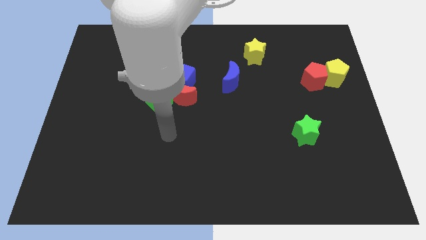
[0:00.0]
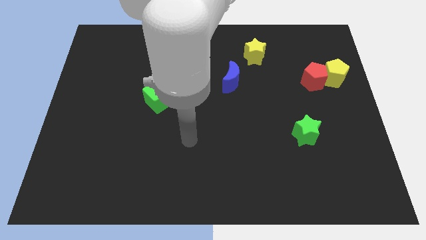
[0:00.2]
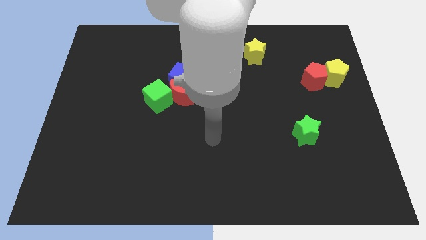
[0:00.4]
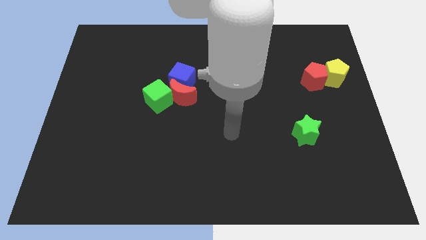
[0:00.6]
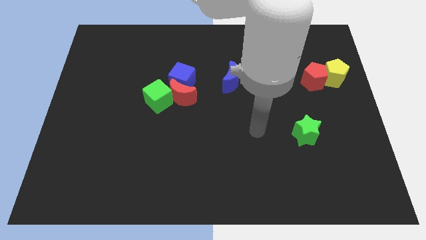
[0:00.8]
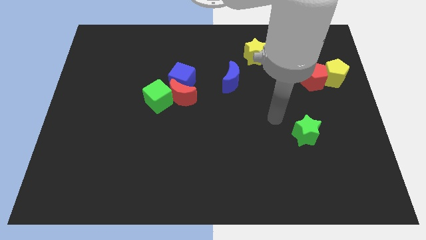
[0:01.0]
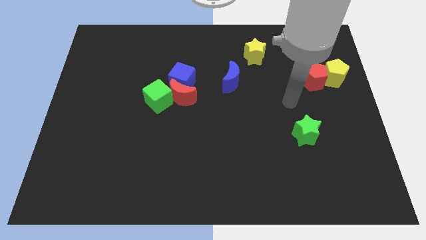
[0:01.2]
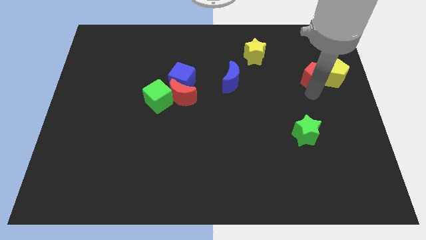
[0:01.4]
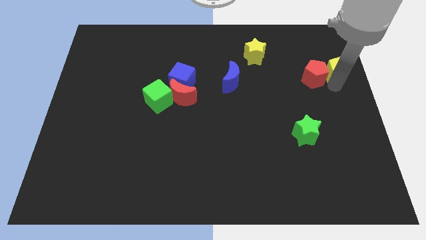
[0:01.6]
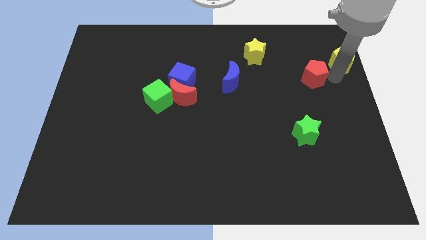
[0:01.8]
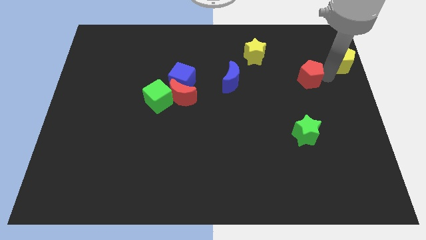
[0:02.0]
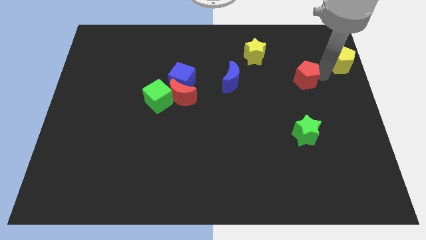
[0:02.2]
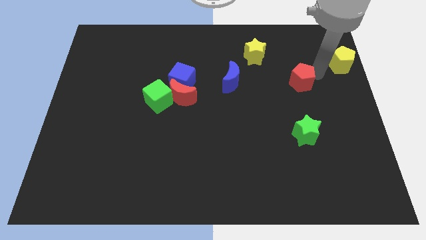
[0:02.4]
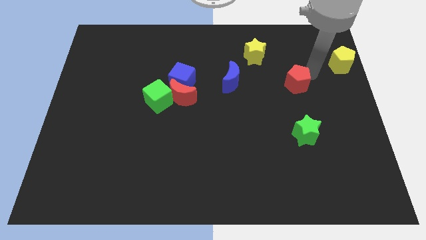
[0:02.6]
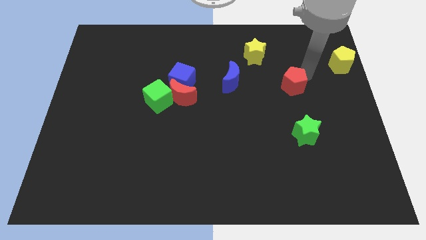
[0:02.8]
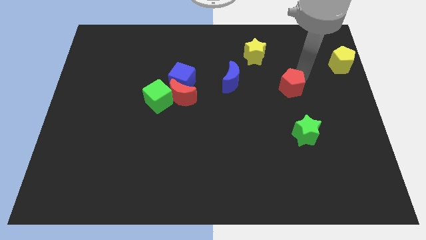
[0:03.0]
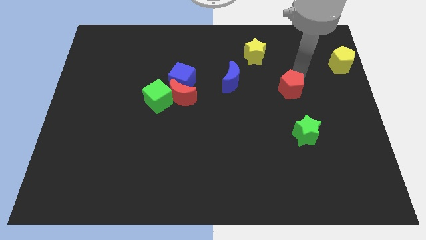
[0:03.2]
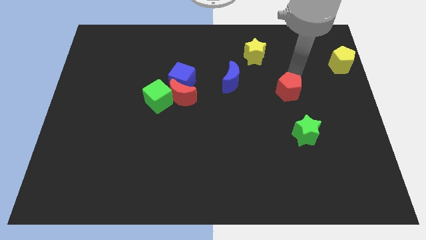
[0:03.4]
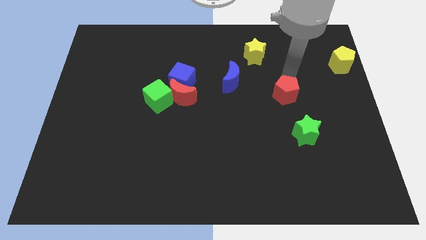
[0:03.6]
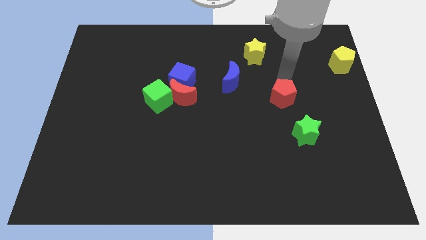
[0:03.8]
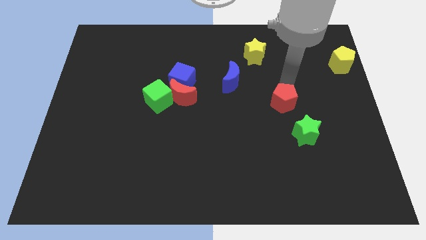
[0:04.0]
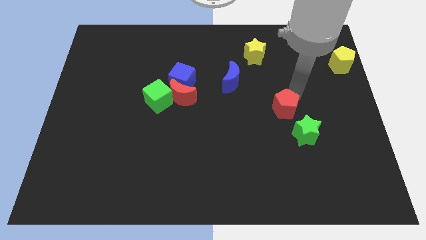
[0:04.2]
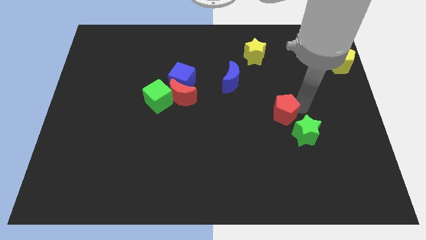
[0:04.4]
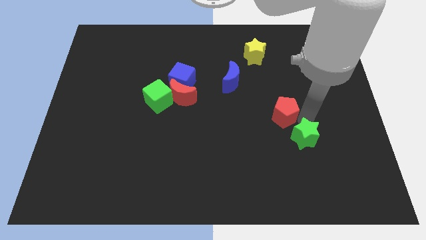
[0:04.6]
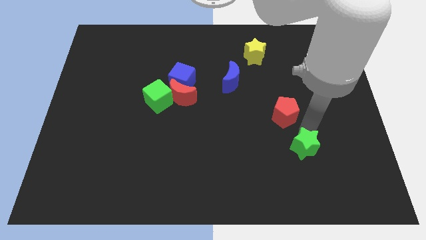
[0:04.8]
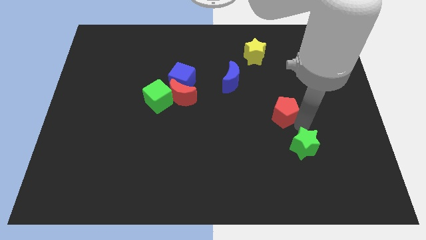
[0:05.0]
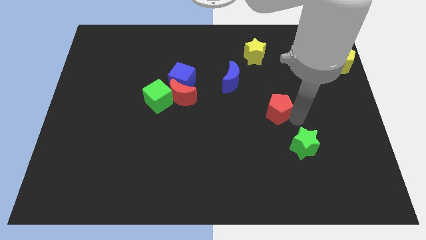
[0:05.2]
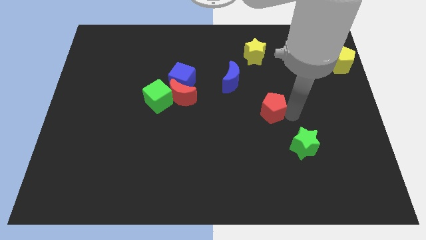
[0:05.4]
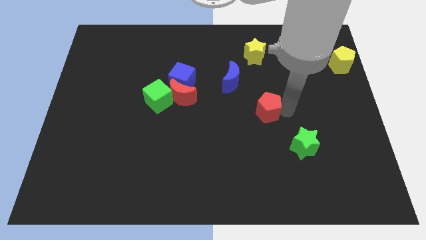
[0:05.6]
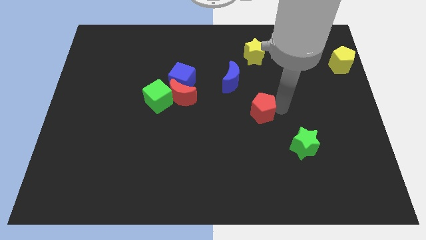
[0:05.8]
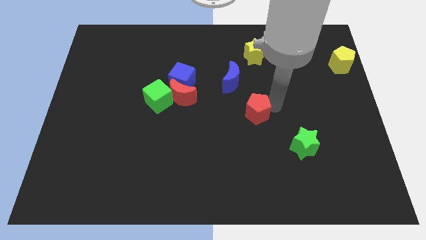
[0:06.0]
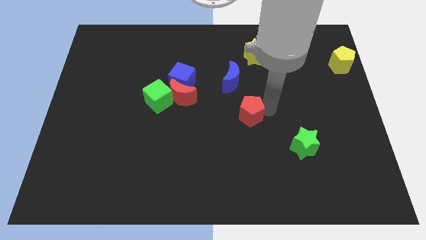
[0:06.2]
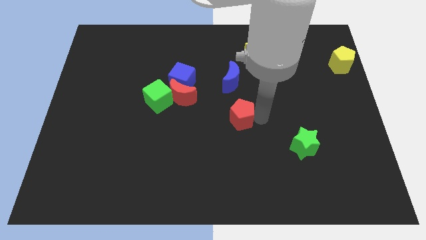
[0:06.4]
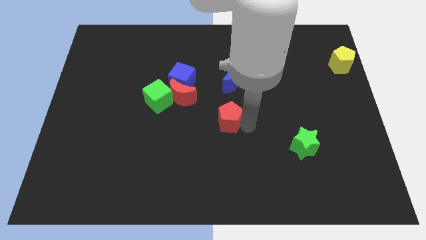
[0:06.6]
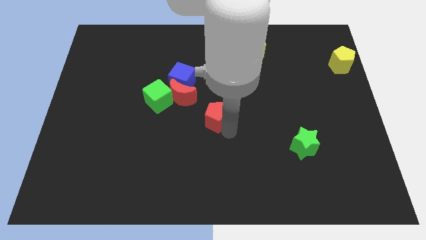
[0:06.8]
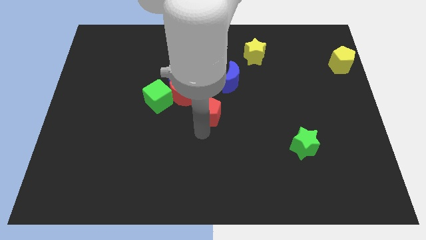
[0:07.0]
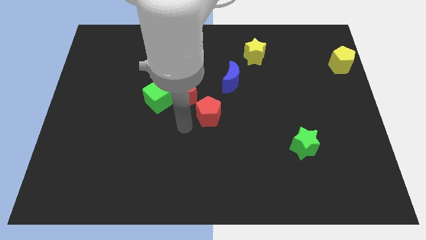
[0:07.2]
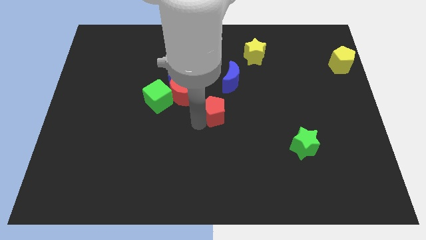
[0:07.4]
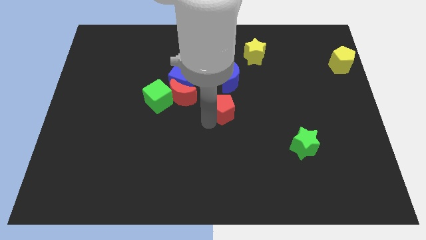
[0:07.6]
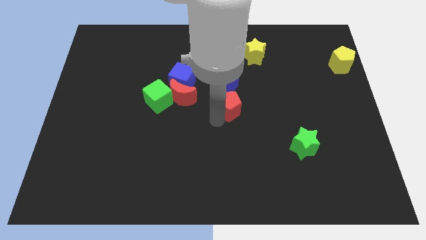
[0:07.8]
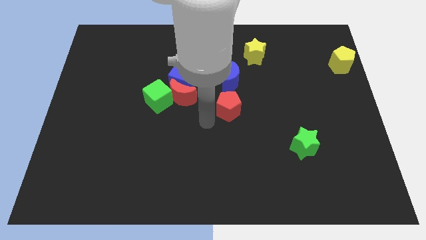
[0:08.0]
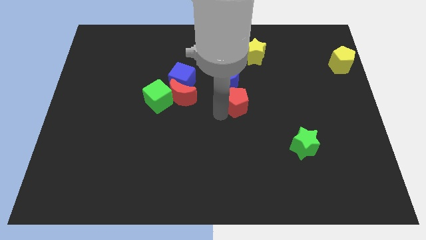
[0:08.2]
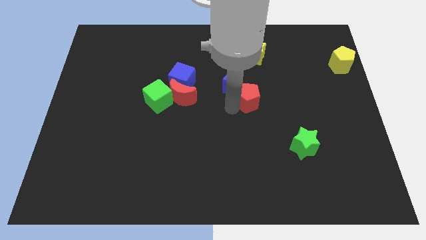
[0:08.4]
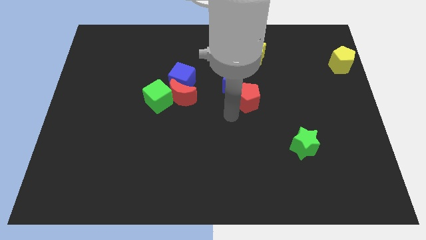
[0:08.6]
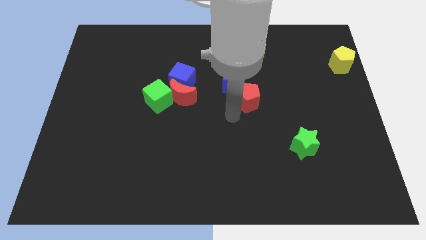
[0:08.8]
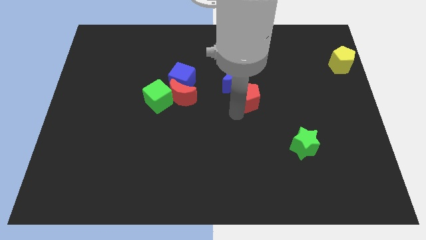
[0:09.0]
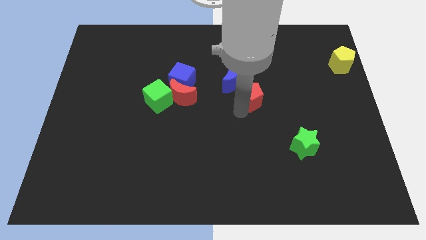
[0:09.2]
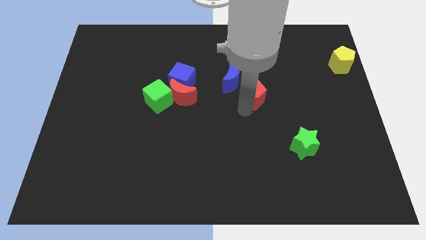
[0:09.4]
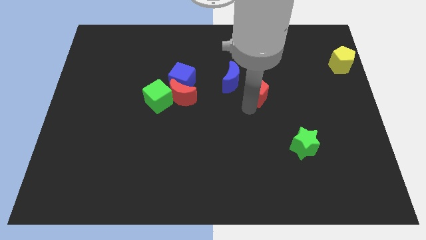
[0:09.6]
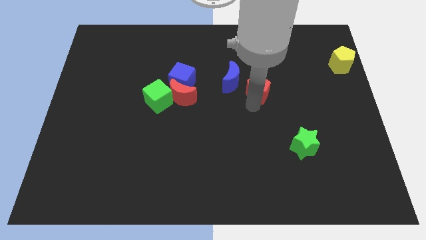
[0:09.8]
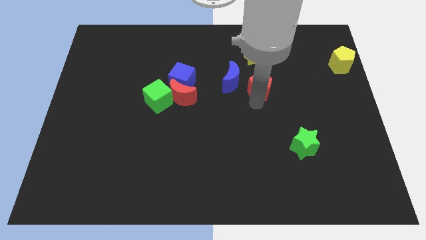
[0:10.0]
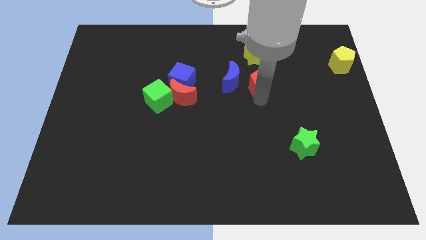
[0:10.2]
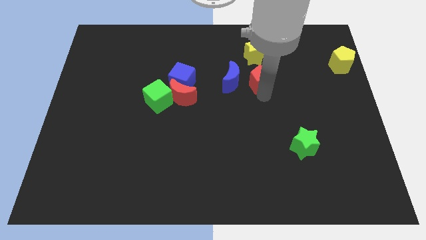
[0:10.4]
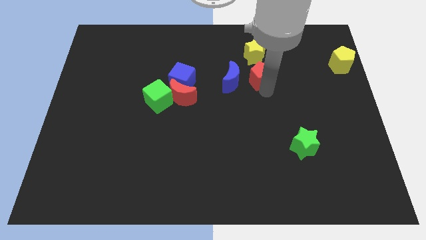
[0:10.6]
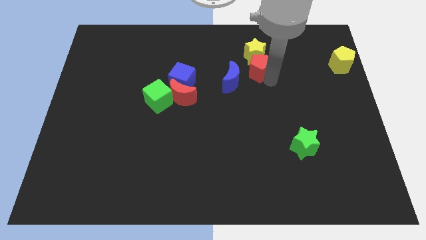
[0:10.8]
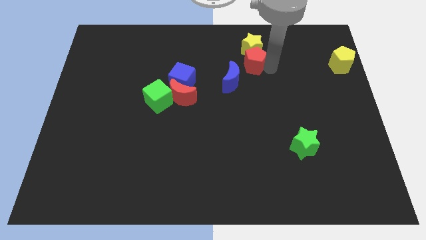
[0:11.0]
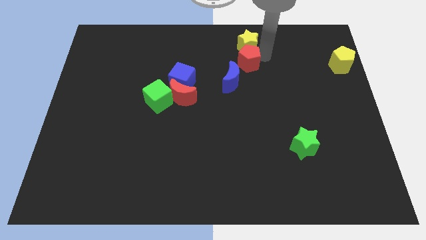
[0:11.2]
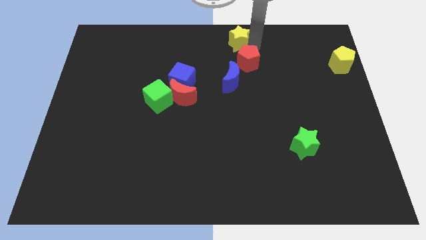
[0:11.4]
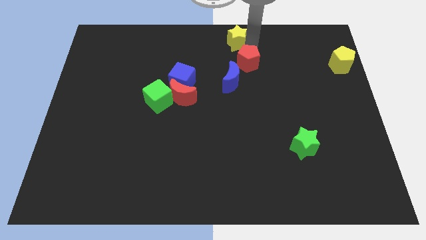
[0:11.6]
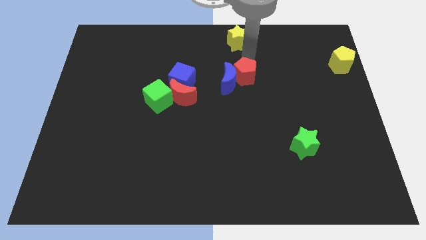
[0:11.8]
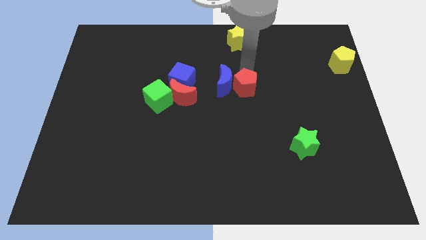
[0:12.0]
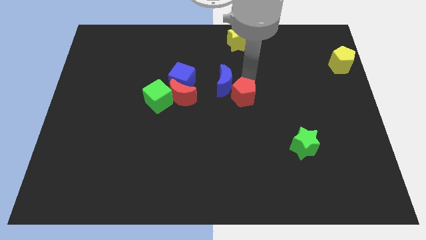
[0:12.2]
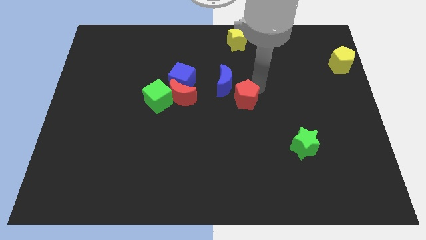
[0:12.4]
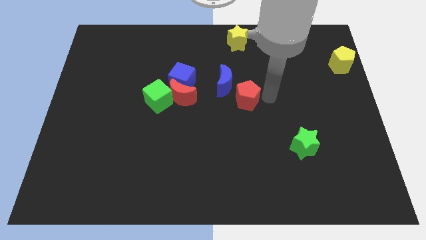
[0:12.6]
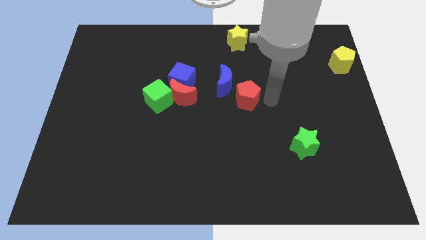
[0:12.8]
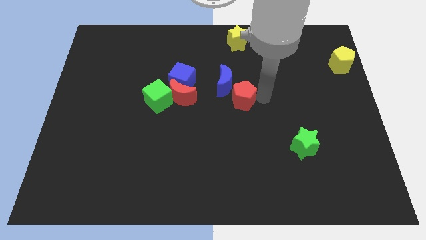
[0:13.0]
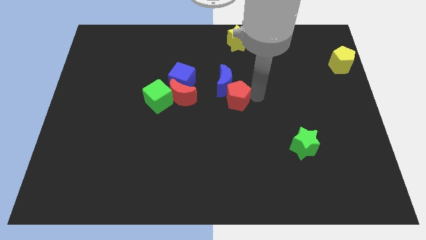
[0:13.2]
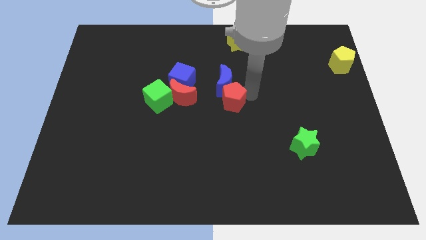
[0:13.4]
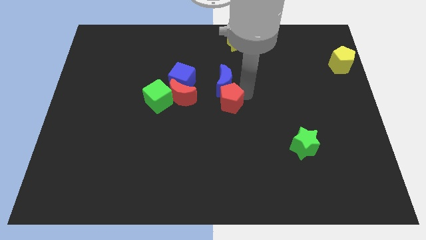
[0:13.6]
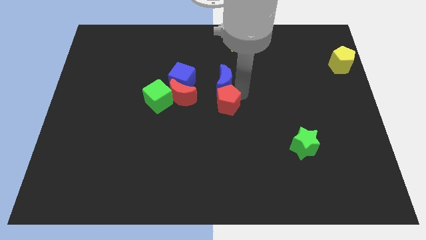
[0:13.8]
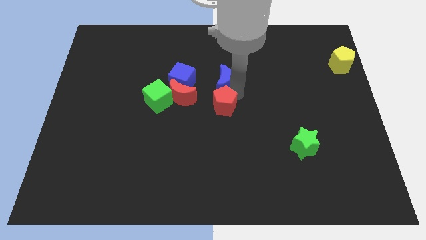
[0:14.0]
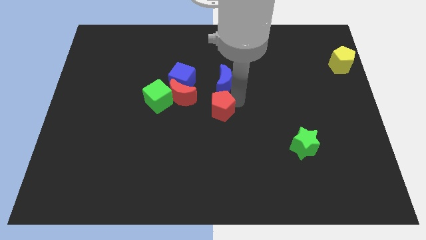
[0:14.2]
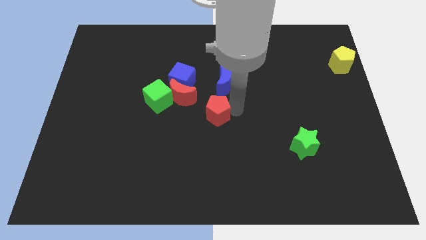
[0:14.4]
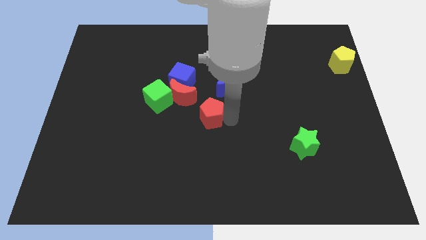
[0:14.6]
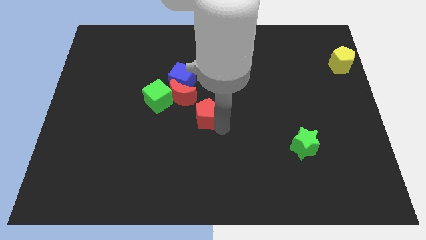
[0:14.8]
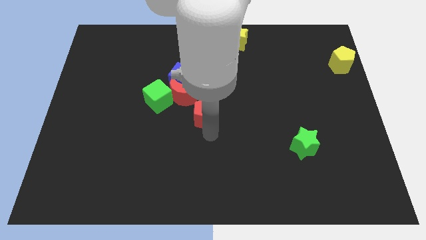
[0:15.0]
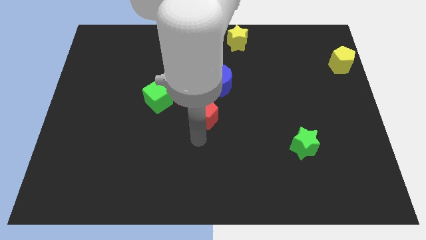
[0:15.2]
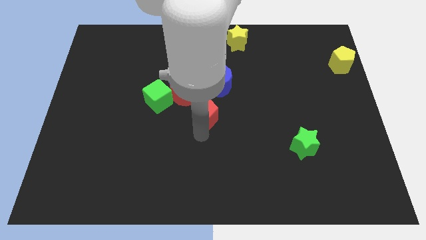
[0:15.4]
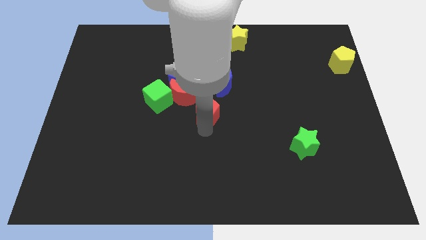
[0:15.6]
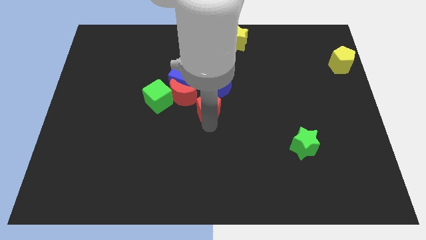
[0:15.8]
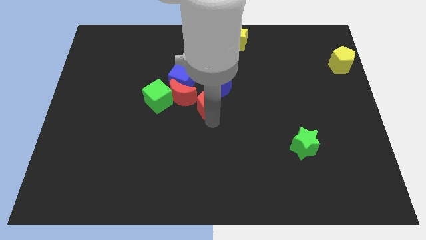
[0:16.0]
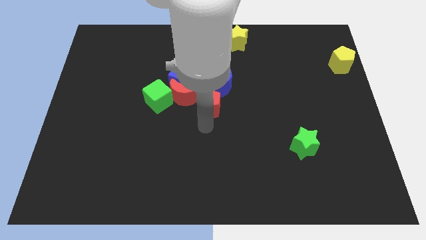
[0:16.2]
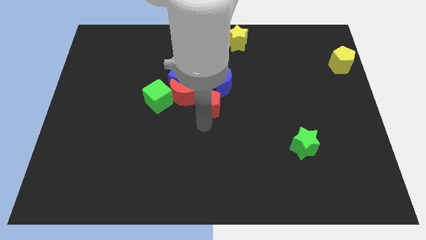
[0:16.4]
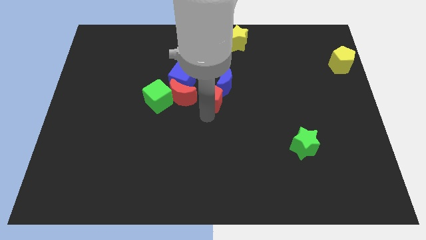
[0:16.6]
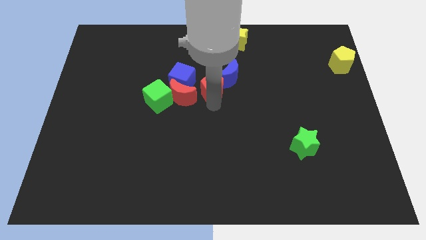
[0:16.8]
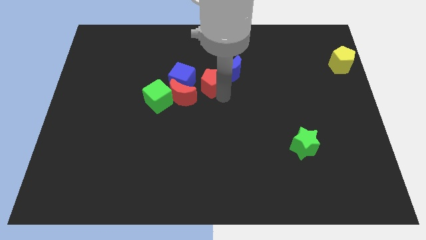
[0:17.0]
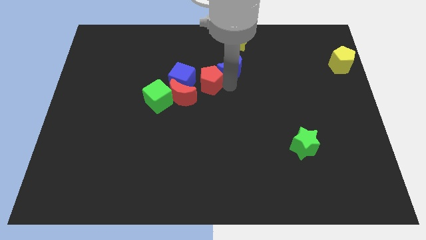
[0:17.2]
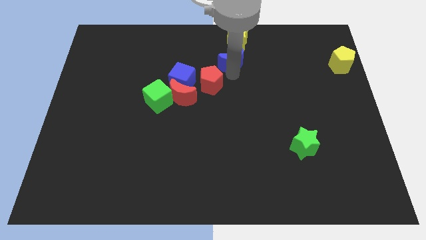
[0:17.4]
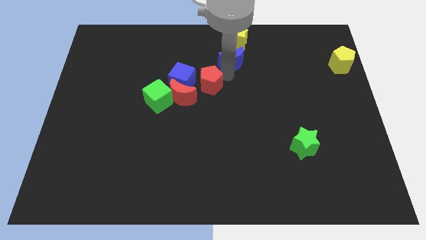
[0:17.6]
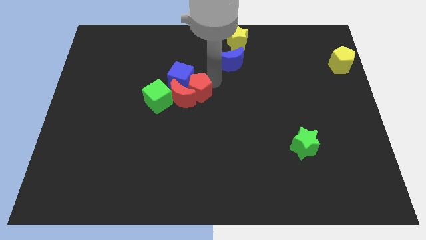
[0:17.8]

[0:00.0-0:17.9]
push the red pentagon to the red moon
